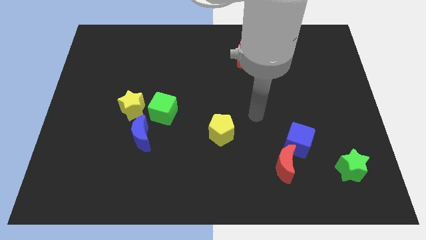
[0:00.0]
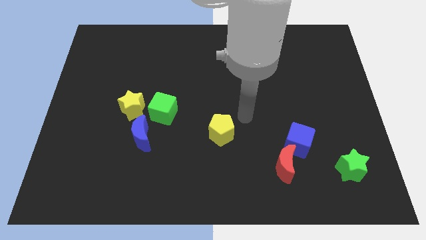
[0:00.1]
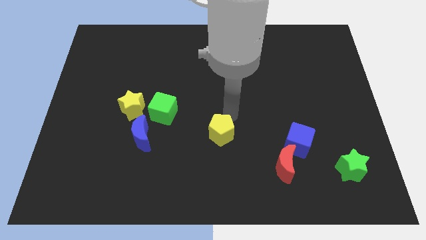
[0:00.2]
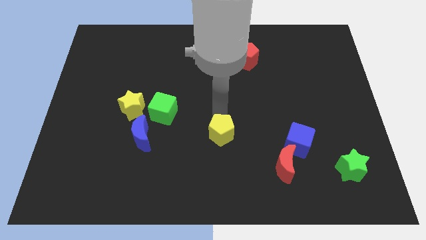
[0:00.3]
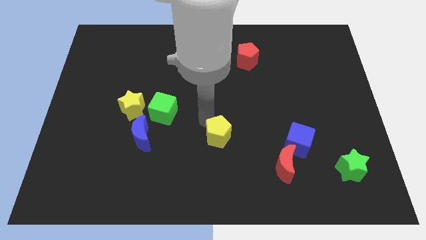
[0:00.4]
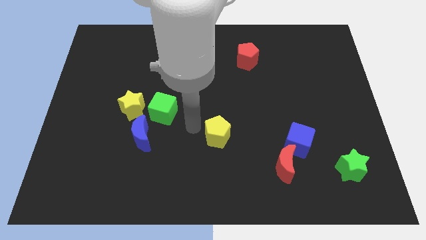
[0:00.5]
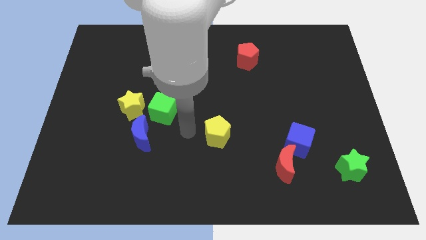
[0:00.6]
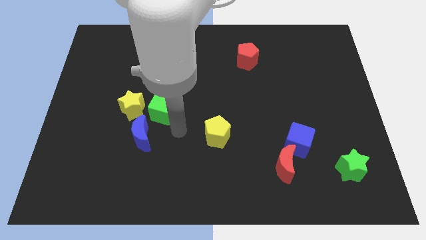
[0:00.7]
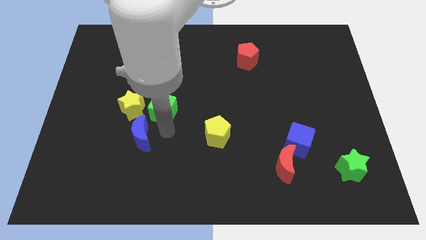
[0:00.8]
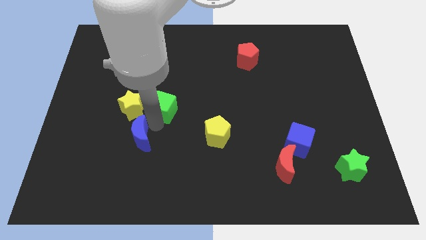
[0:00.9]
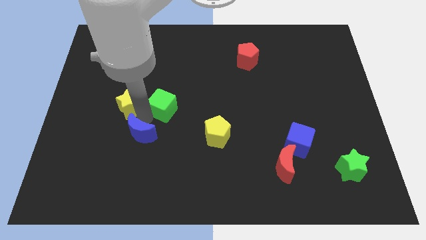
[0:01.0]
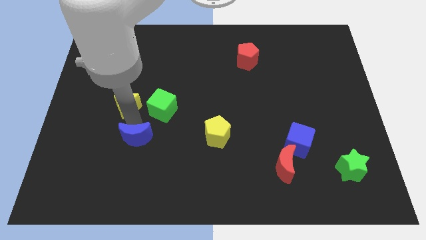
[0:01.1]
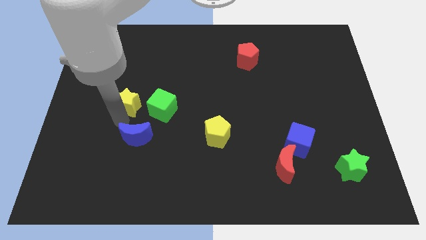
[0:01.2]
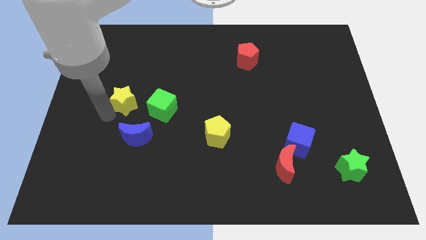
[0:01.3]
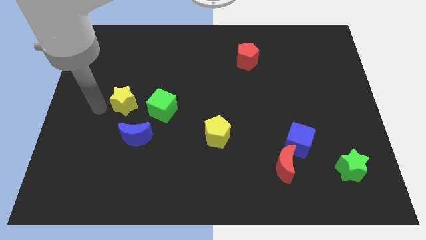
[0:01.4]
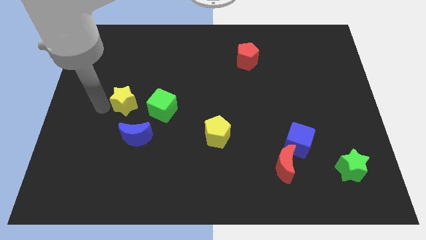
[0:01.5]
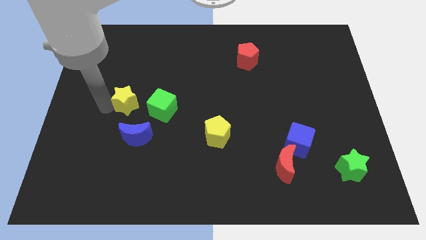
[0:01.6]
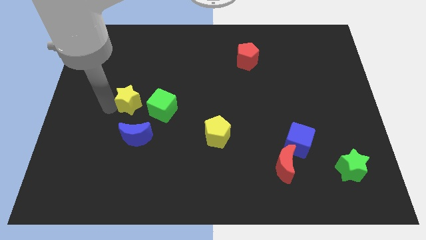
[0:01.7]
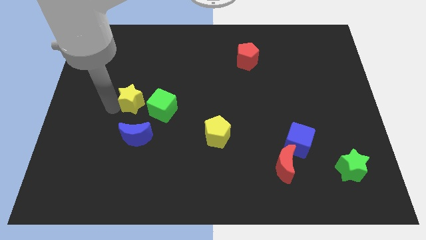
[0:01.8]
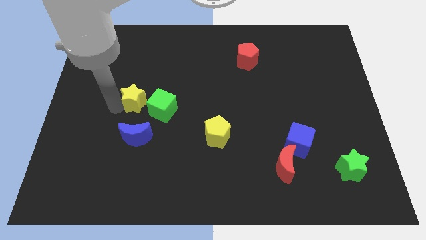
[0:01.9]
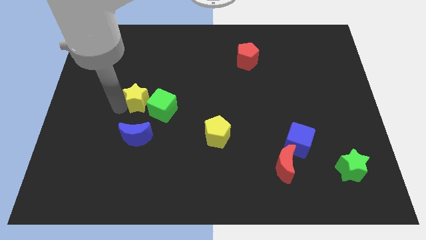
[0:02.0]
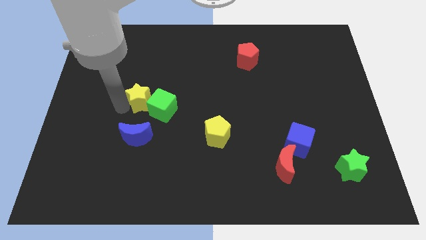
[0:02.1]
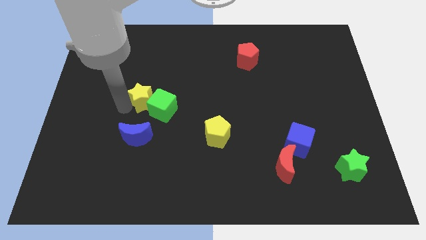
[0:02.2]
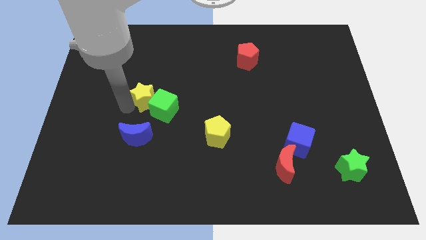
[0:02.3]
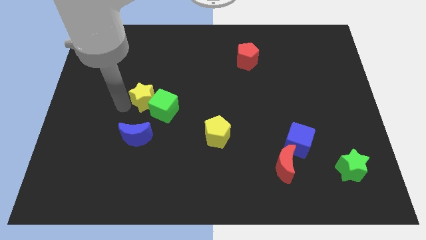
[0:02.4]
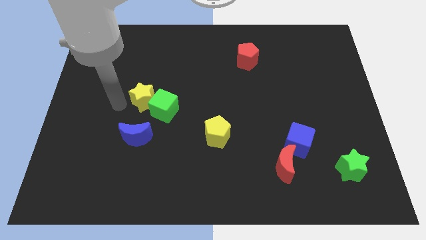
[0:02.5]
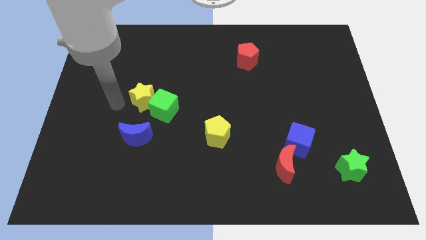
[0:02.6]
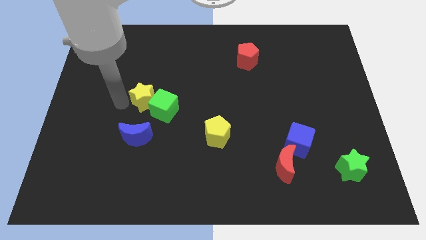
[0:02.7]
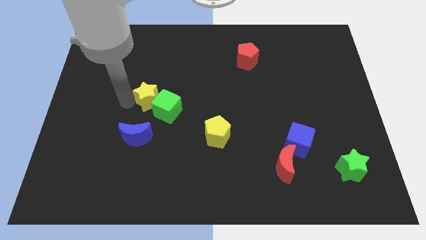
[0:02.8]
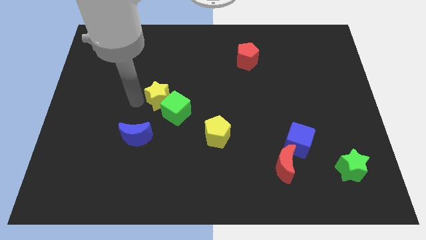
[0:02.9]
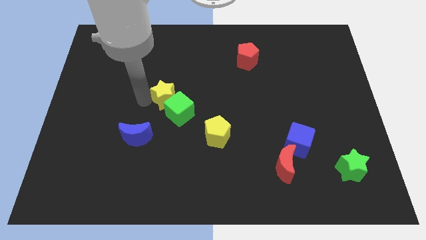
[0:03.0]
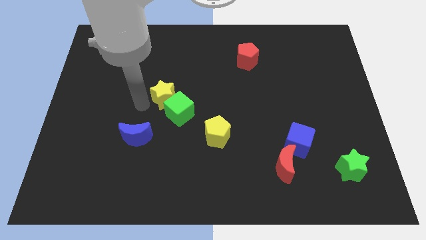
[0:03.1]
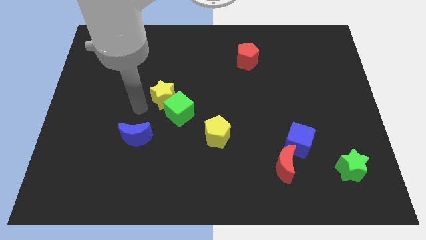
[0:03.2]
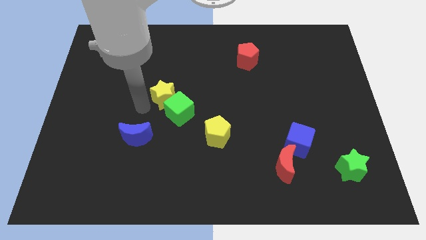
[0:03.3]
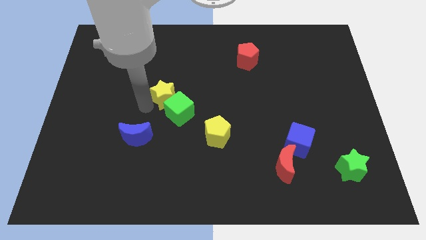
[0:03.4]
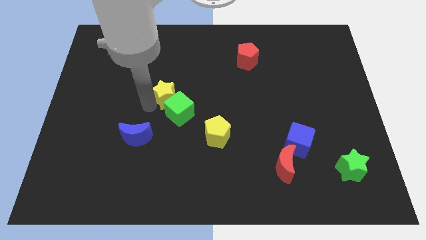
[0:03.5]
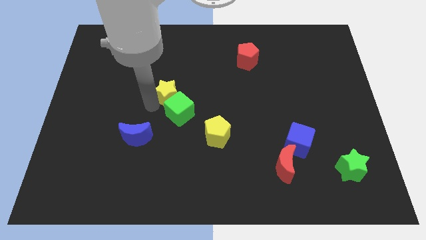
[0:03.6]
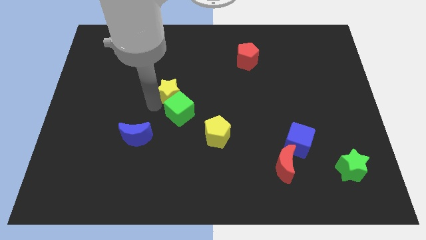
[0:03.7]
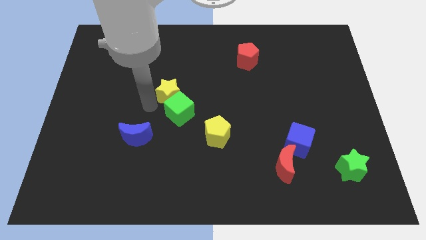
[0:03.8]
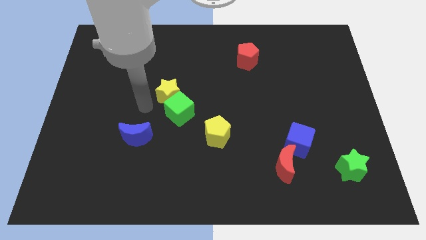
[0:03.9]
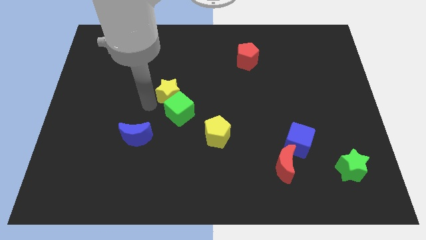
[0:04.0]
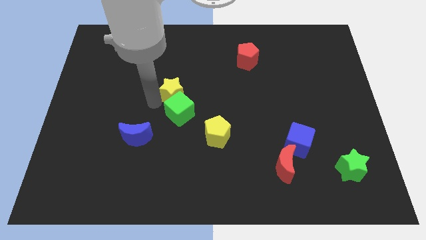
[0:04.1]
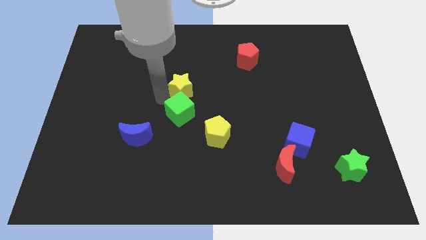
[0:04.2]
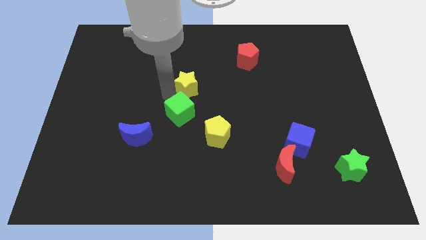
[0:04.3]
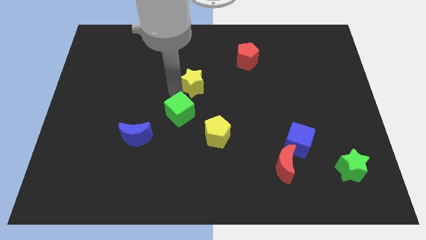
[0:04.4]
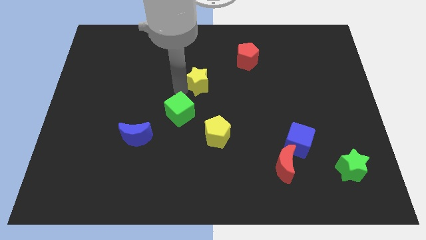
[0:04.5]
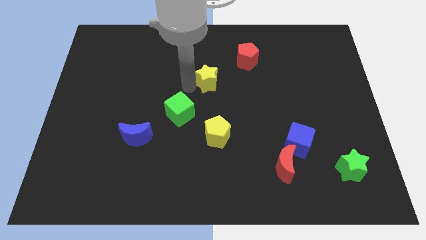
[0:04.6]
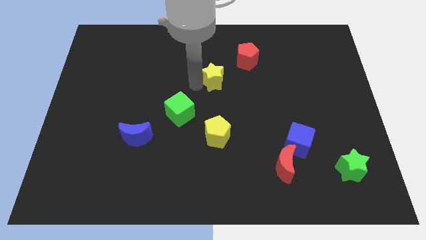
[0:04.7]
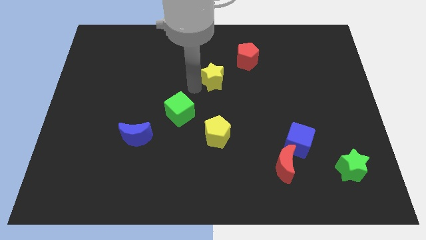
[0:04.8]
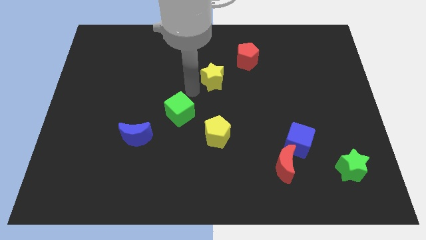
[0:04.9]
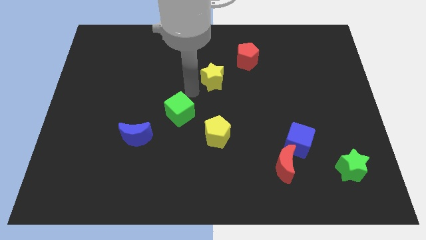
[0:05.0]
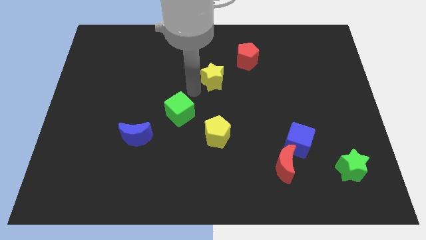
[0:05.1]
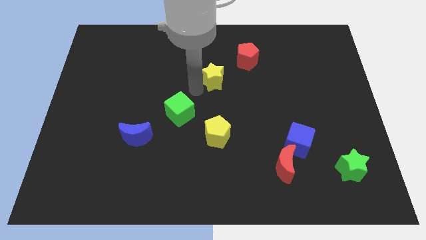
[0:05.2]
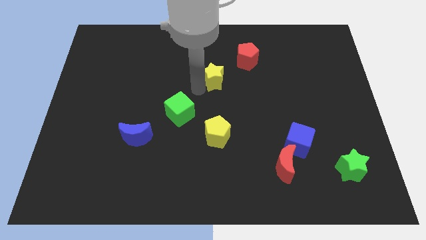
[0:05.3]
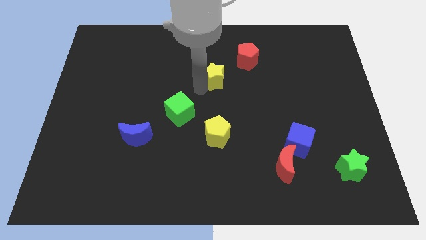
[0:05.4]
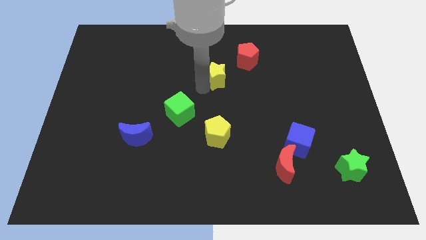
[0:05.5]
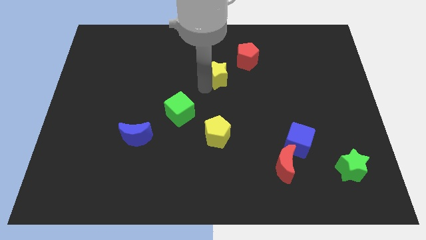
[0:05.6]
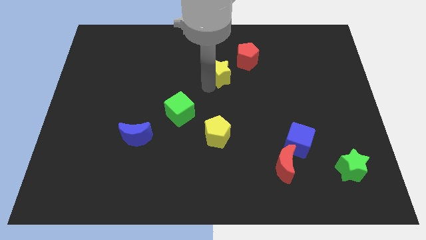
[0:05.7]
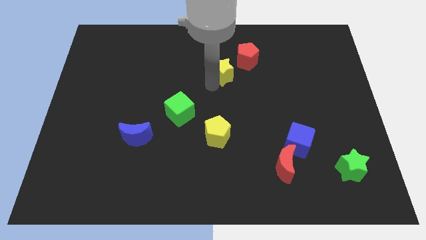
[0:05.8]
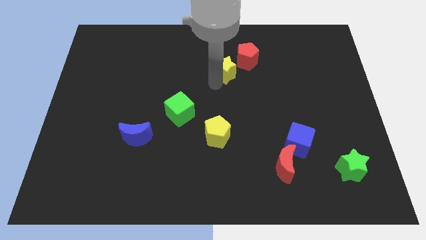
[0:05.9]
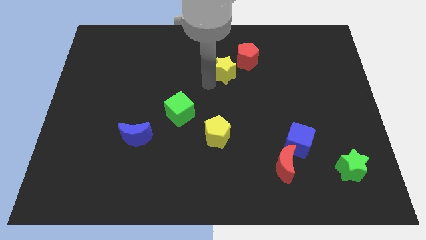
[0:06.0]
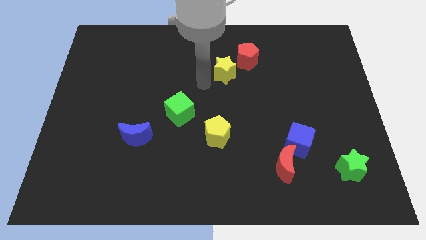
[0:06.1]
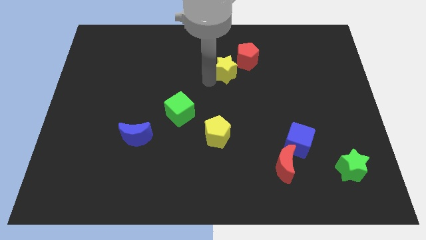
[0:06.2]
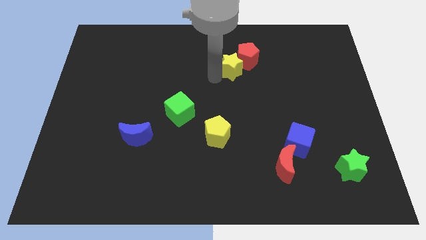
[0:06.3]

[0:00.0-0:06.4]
move the yellow star towards the red pentagon
